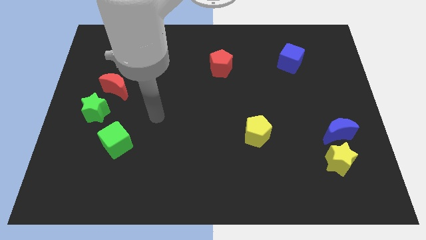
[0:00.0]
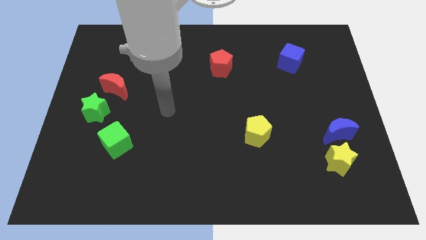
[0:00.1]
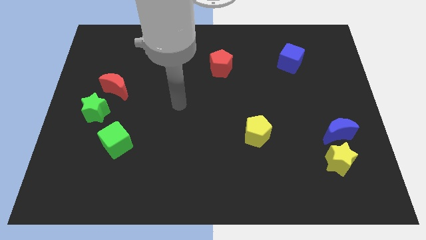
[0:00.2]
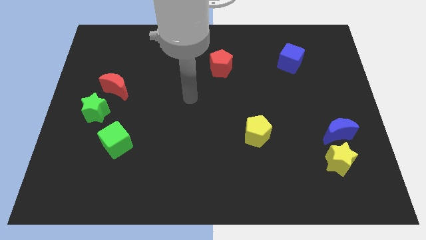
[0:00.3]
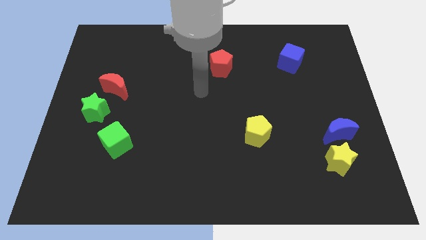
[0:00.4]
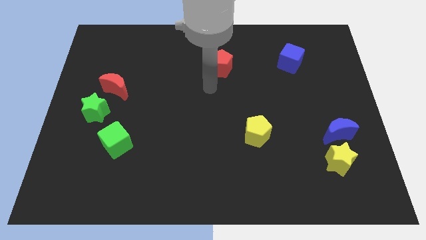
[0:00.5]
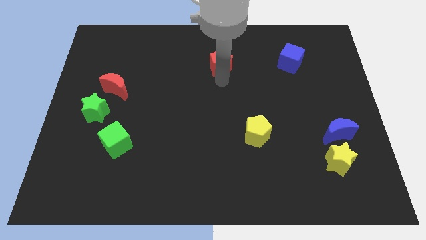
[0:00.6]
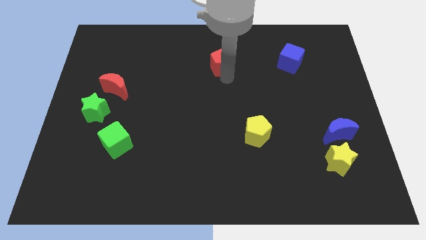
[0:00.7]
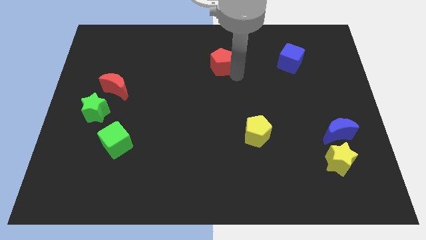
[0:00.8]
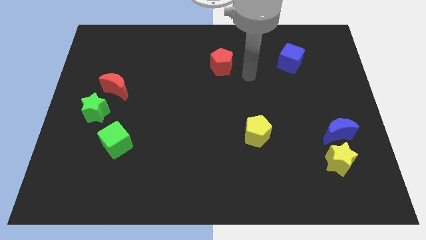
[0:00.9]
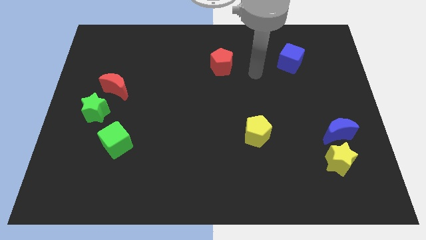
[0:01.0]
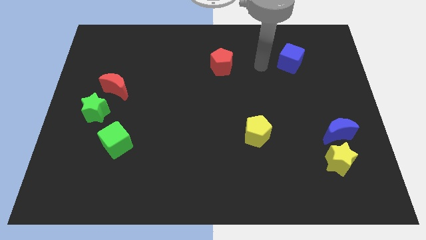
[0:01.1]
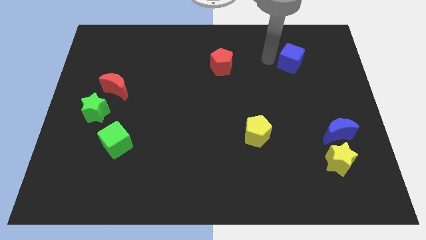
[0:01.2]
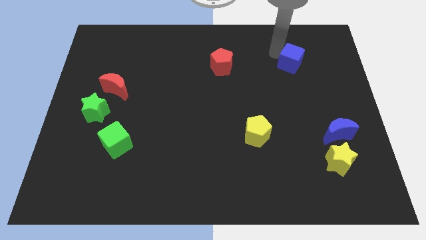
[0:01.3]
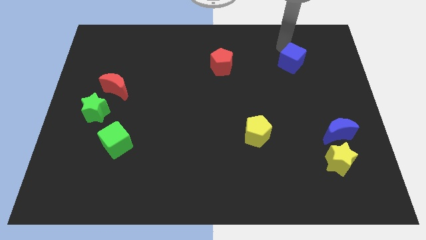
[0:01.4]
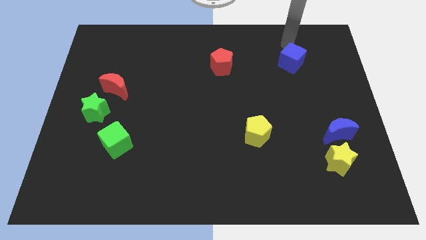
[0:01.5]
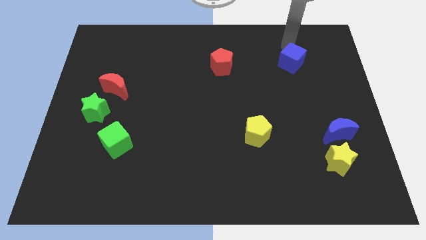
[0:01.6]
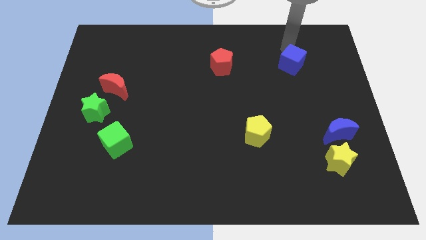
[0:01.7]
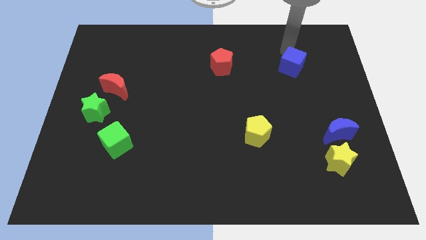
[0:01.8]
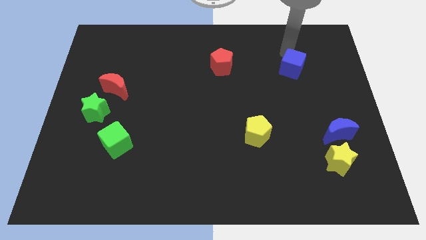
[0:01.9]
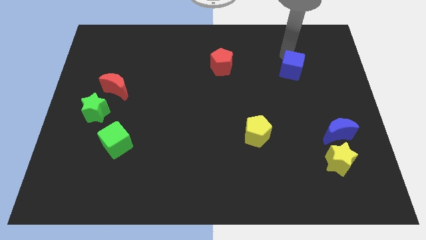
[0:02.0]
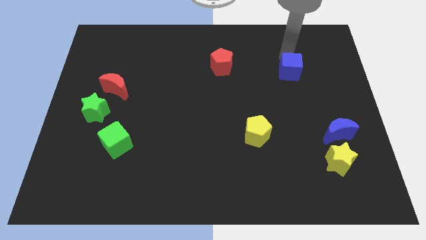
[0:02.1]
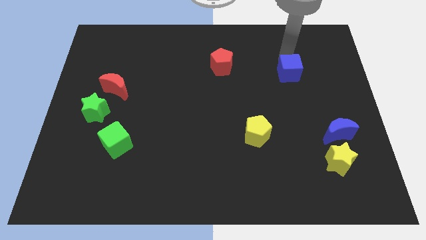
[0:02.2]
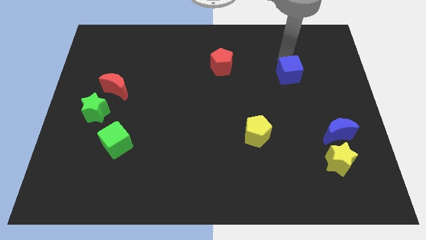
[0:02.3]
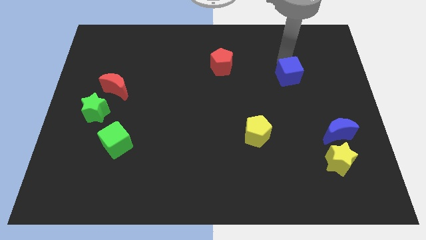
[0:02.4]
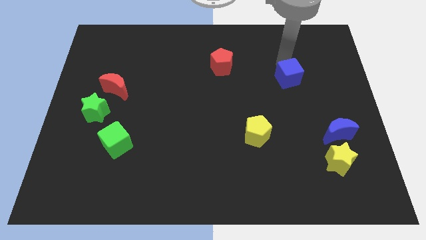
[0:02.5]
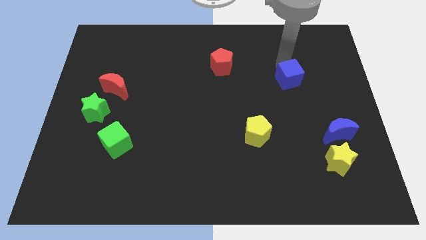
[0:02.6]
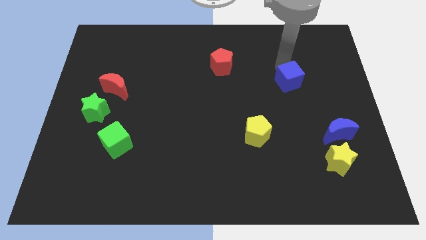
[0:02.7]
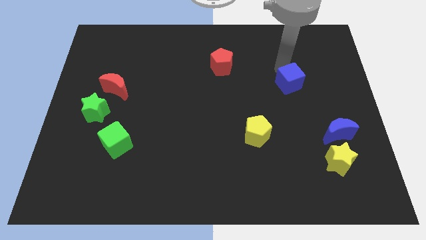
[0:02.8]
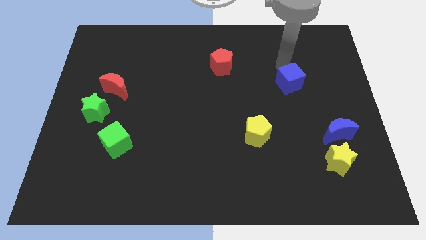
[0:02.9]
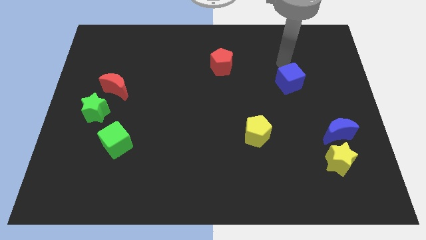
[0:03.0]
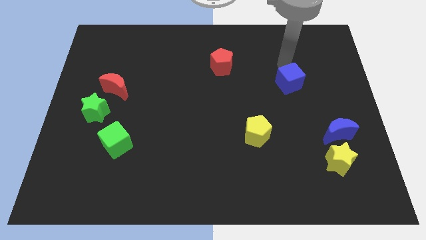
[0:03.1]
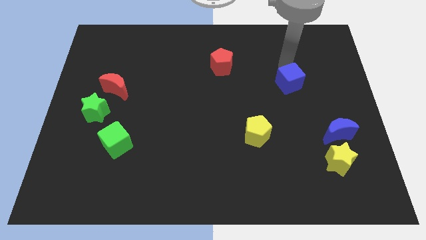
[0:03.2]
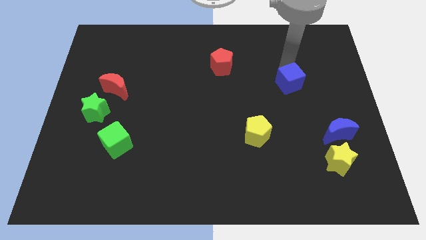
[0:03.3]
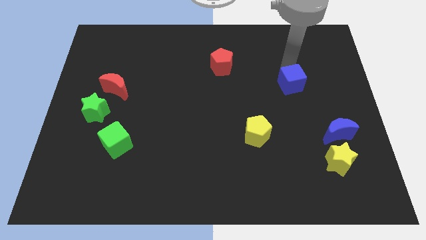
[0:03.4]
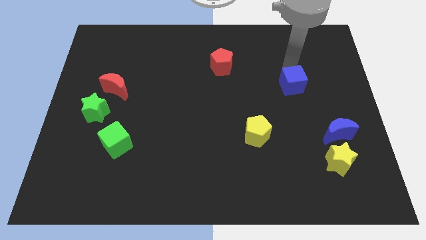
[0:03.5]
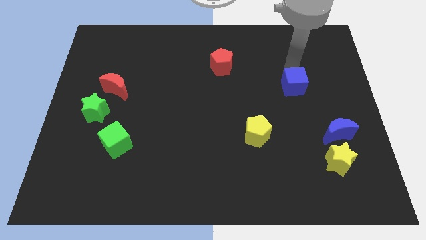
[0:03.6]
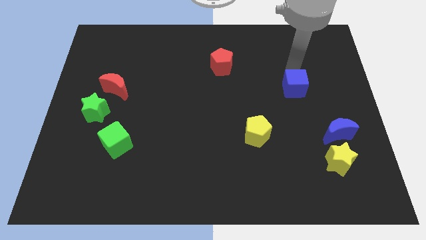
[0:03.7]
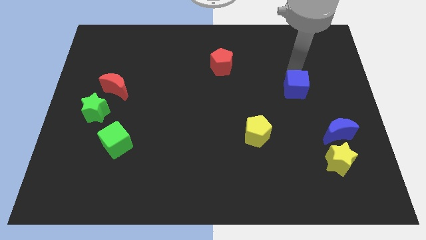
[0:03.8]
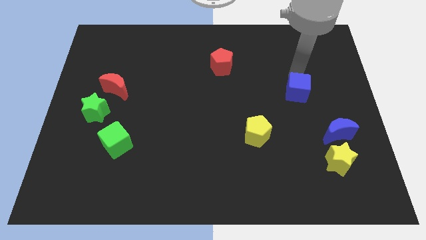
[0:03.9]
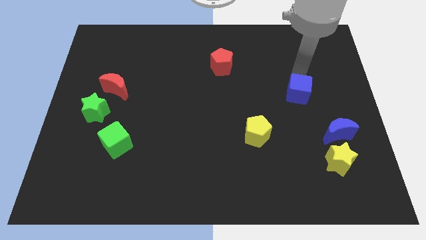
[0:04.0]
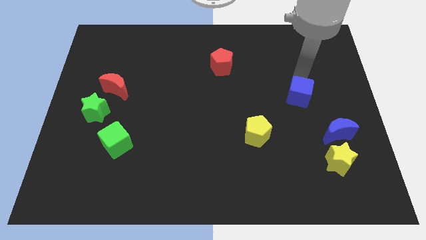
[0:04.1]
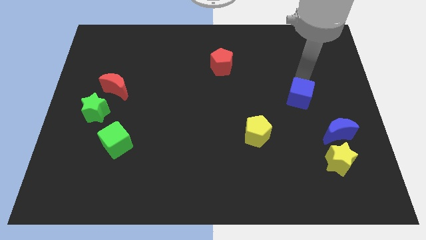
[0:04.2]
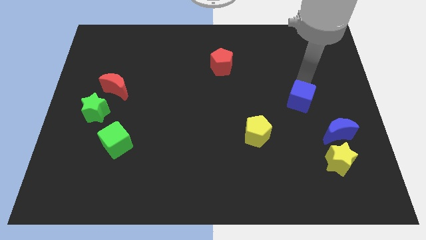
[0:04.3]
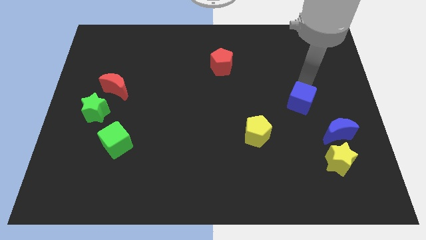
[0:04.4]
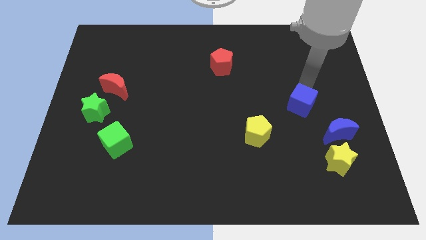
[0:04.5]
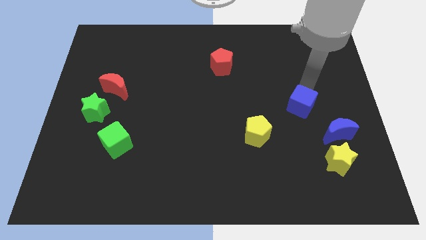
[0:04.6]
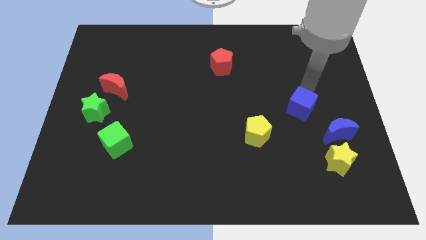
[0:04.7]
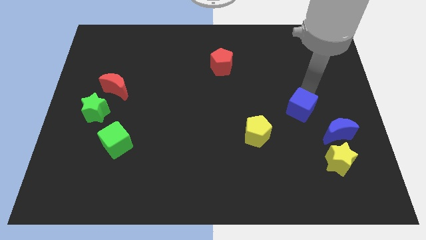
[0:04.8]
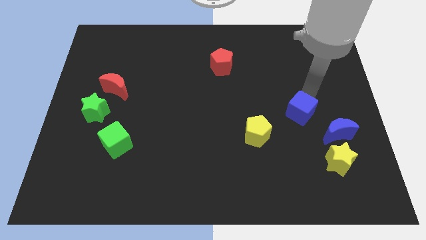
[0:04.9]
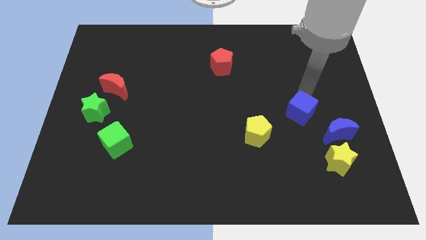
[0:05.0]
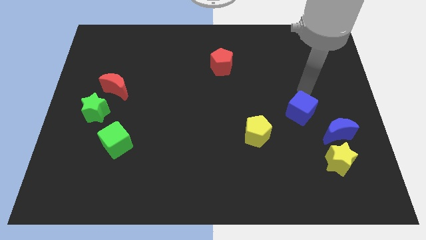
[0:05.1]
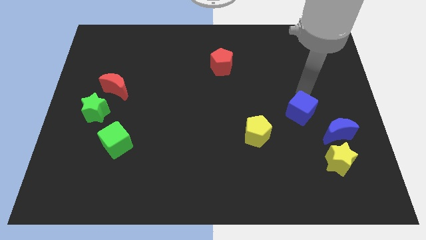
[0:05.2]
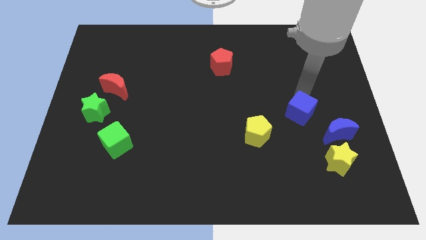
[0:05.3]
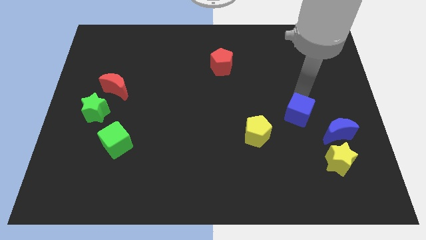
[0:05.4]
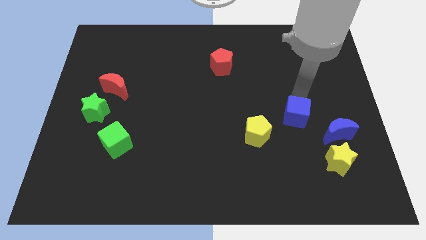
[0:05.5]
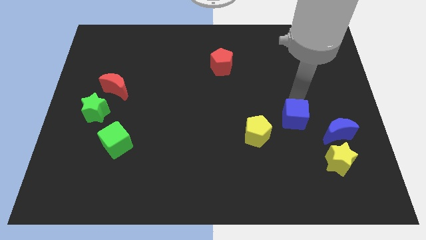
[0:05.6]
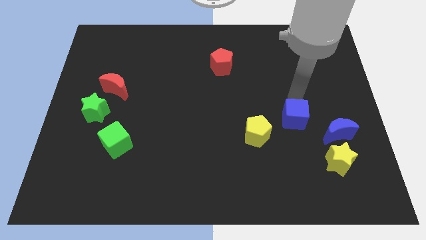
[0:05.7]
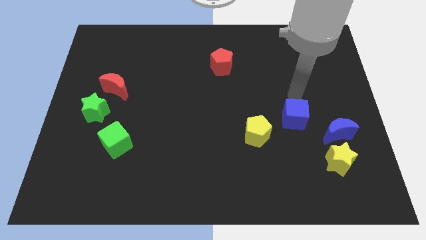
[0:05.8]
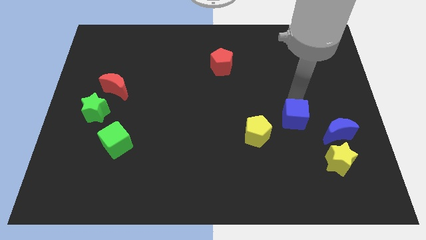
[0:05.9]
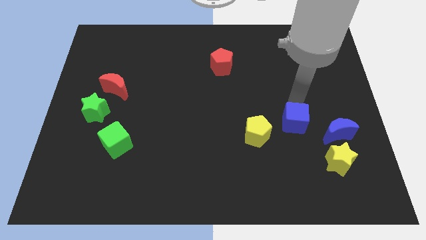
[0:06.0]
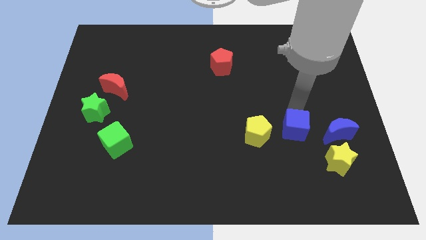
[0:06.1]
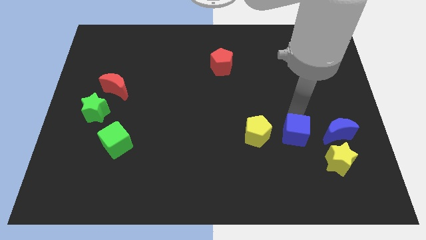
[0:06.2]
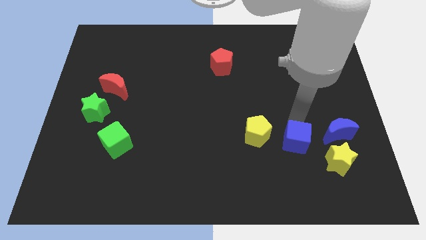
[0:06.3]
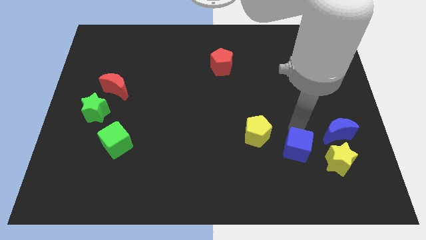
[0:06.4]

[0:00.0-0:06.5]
move the blue cube to the left of the yellow star

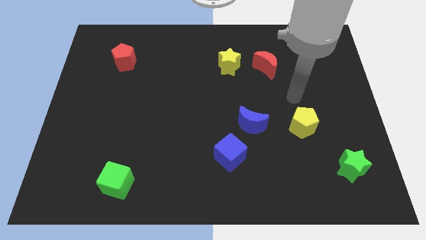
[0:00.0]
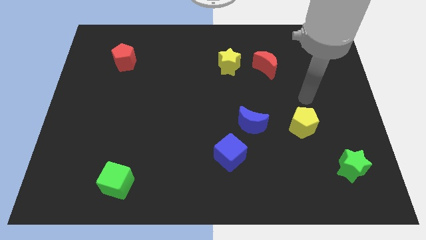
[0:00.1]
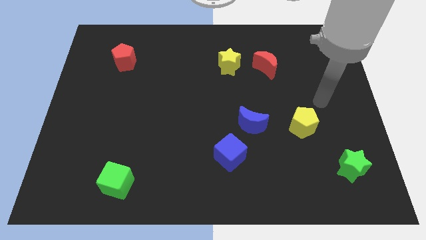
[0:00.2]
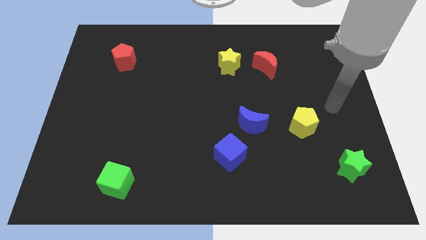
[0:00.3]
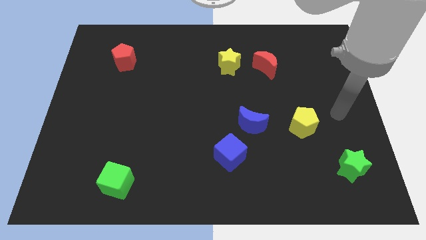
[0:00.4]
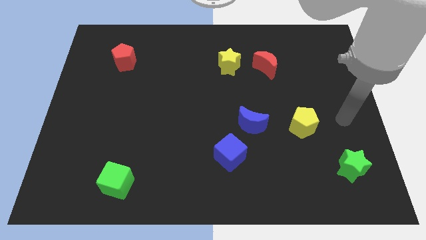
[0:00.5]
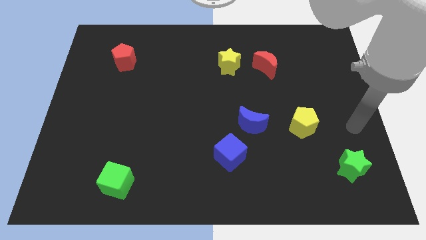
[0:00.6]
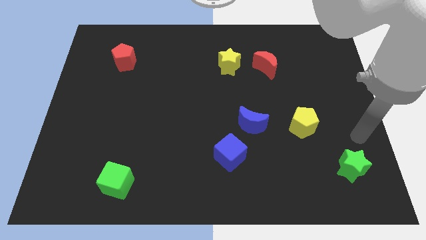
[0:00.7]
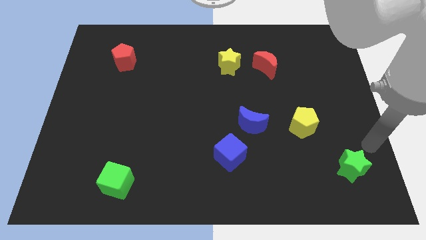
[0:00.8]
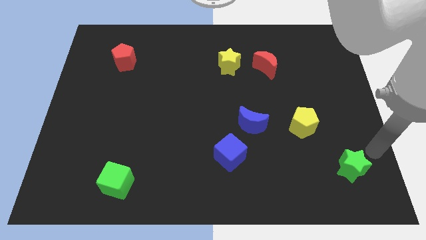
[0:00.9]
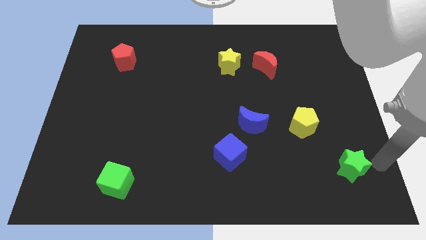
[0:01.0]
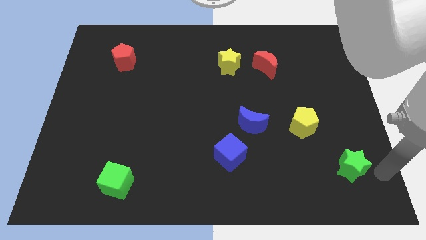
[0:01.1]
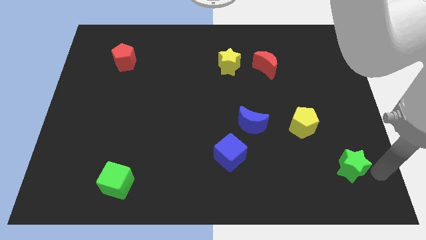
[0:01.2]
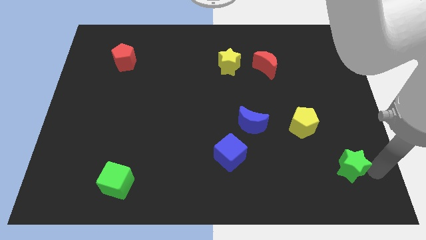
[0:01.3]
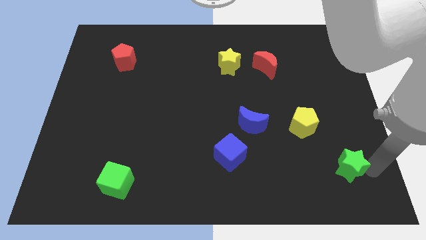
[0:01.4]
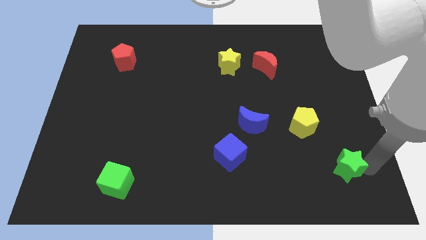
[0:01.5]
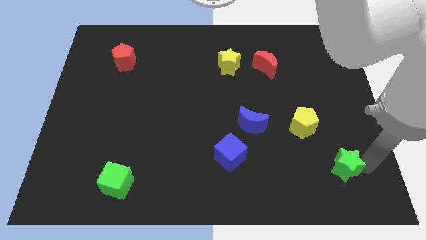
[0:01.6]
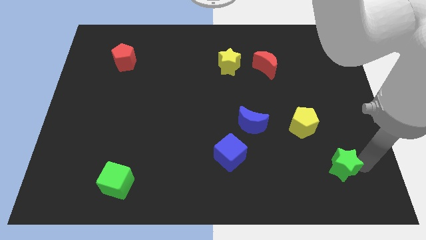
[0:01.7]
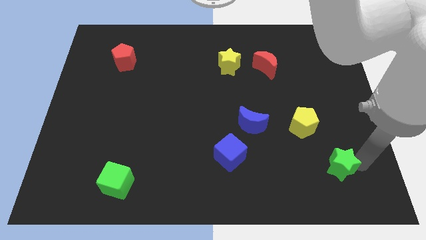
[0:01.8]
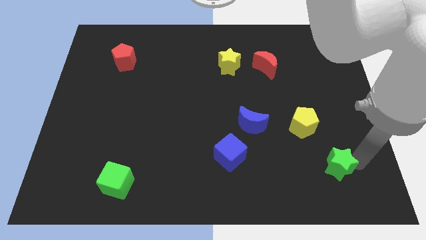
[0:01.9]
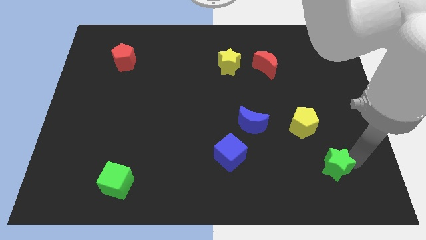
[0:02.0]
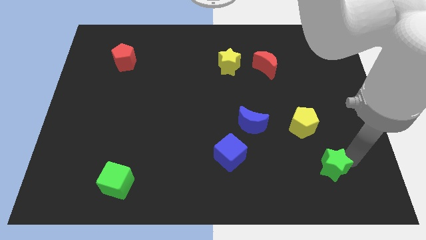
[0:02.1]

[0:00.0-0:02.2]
push the green star to the bottom of the yellow pentagon
